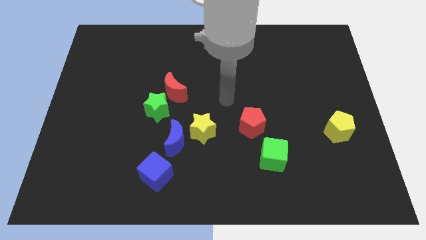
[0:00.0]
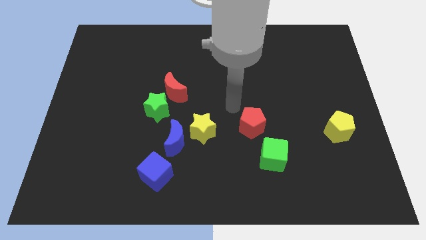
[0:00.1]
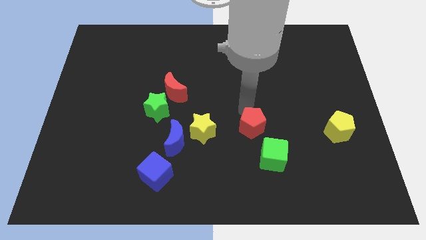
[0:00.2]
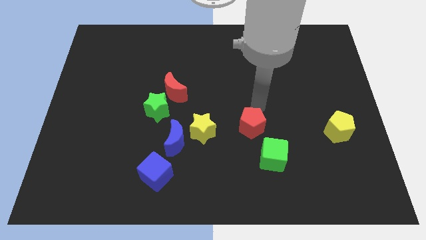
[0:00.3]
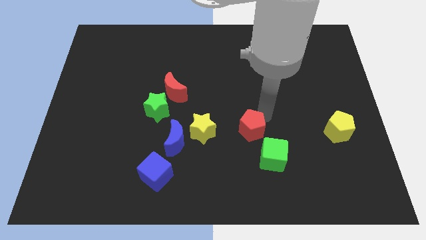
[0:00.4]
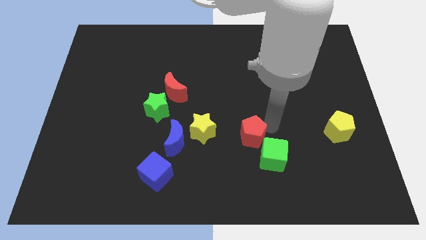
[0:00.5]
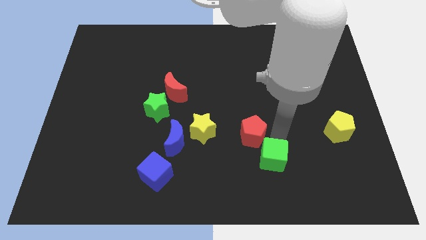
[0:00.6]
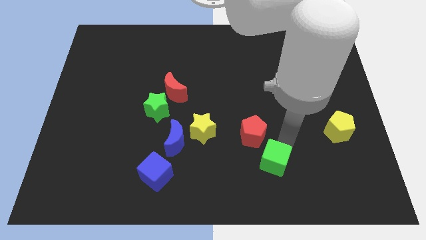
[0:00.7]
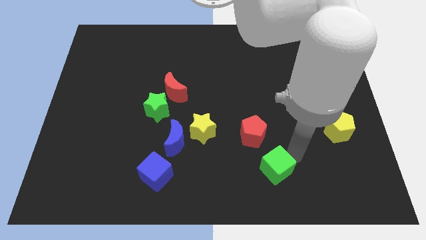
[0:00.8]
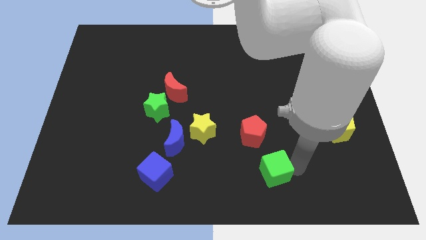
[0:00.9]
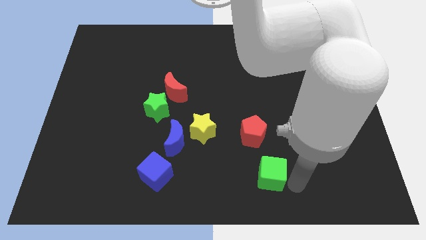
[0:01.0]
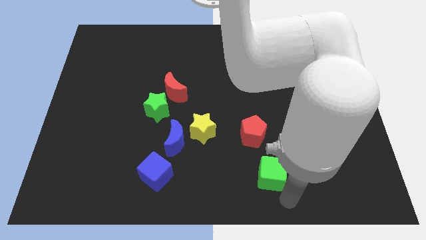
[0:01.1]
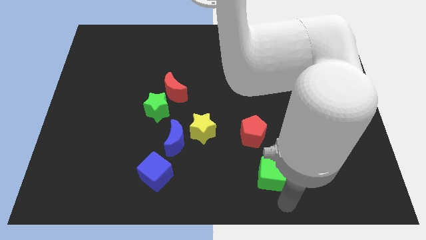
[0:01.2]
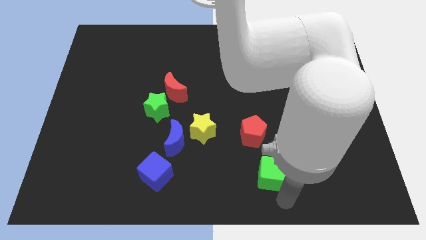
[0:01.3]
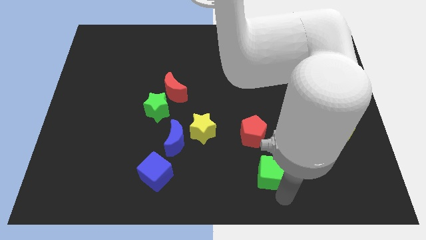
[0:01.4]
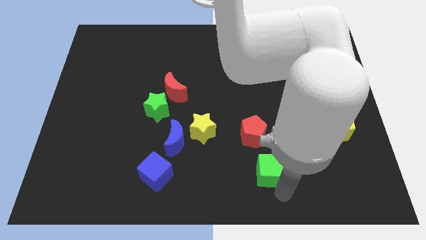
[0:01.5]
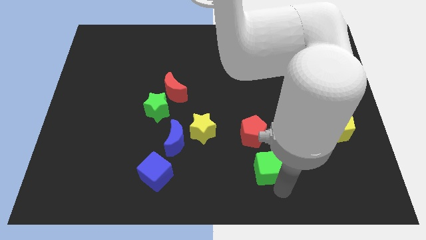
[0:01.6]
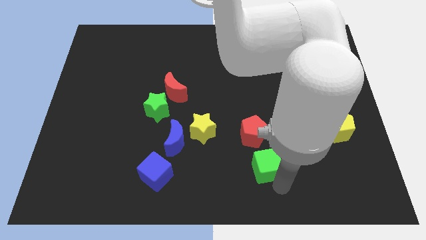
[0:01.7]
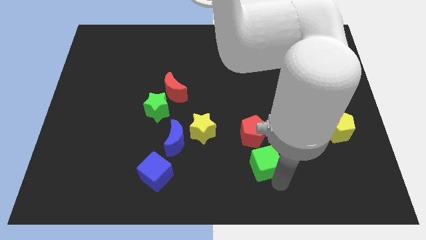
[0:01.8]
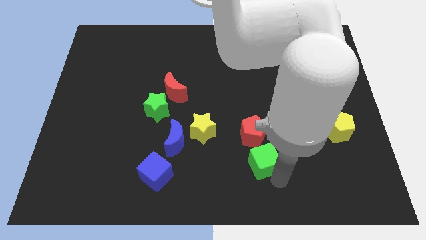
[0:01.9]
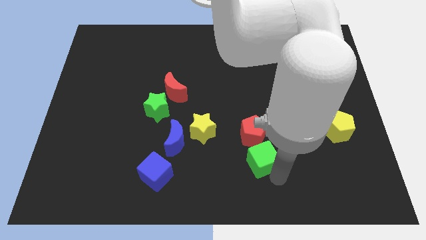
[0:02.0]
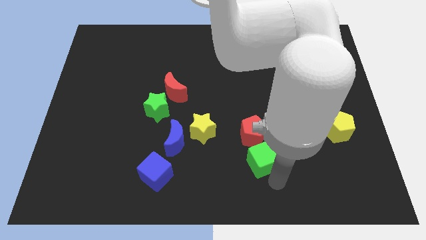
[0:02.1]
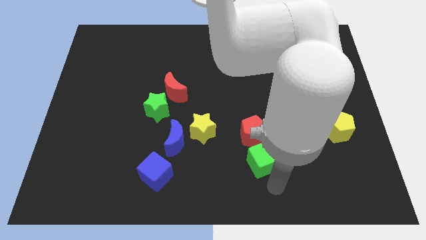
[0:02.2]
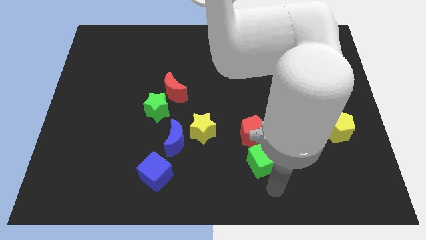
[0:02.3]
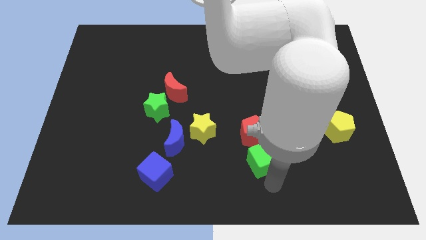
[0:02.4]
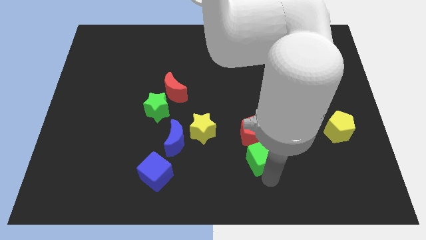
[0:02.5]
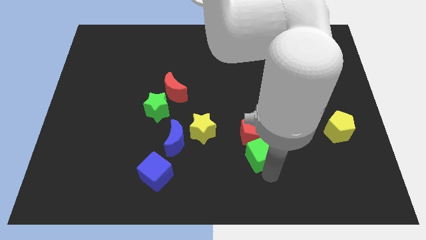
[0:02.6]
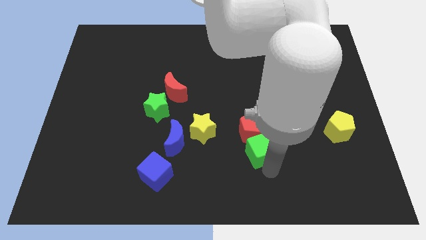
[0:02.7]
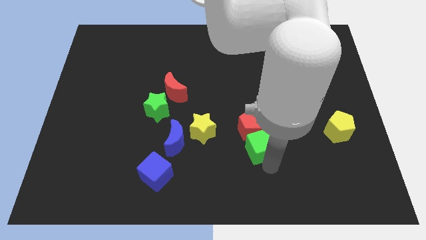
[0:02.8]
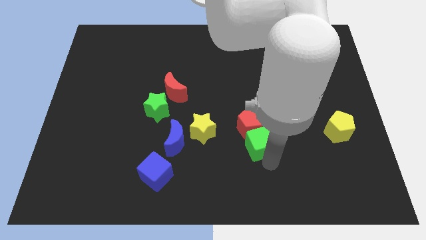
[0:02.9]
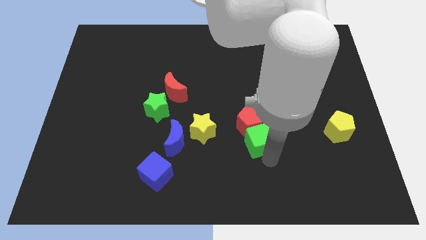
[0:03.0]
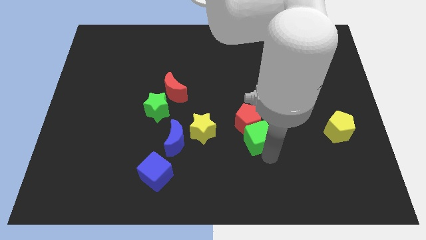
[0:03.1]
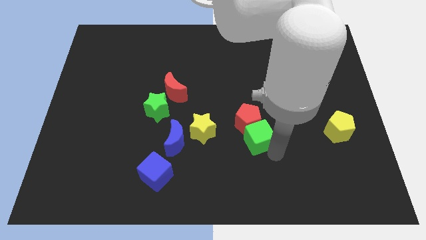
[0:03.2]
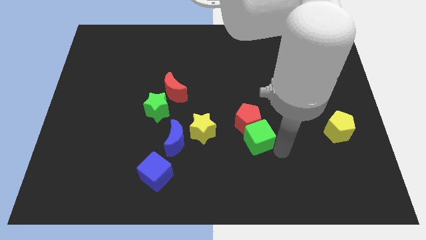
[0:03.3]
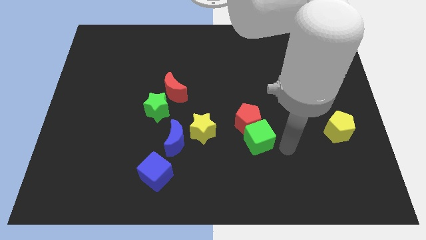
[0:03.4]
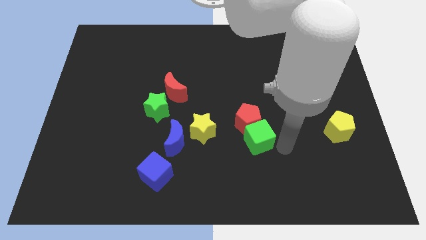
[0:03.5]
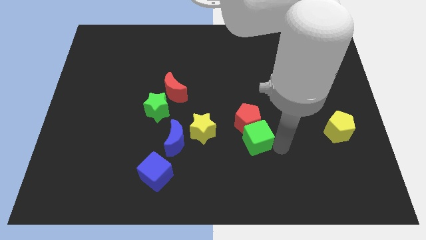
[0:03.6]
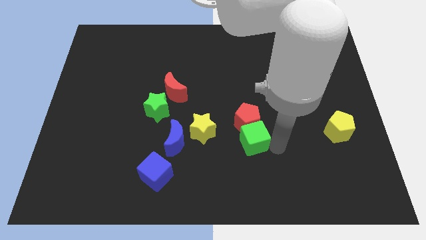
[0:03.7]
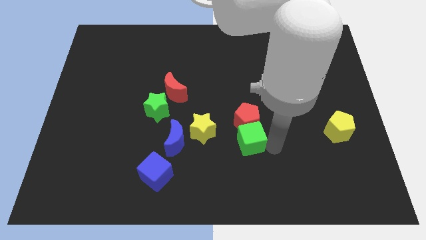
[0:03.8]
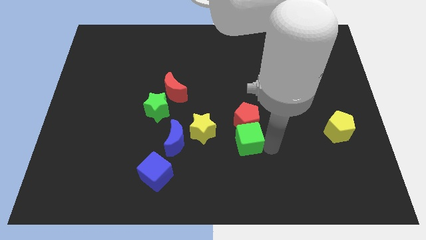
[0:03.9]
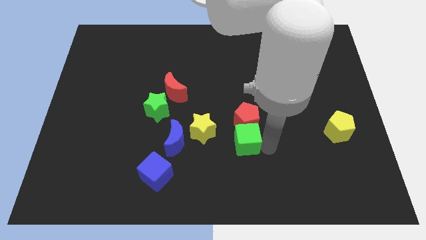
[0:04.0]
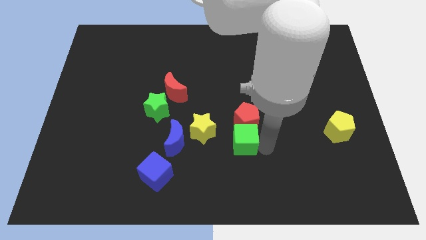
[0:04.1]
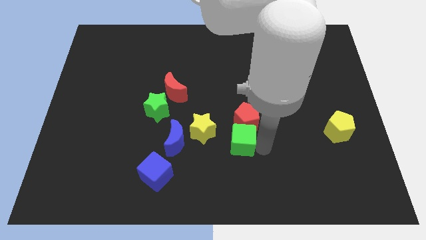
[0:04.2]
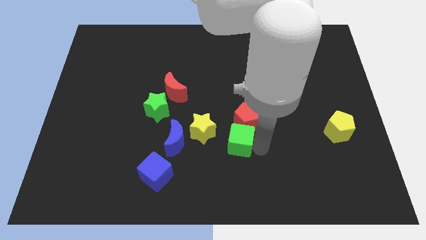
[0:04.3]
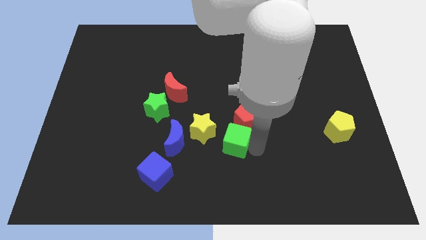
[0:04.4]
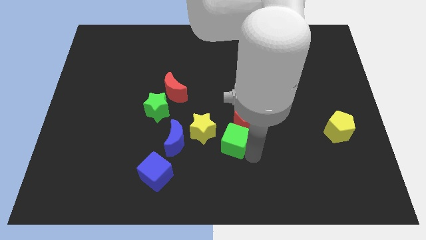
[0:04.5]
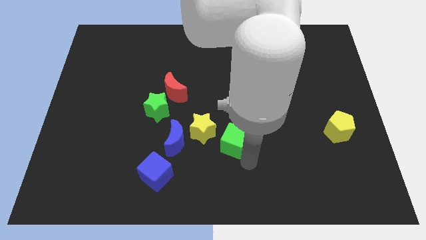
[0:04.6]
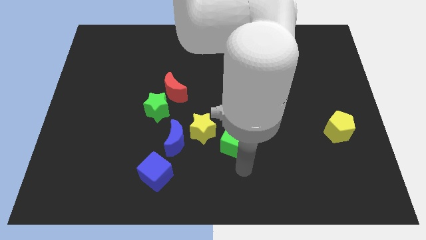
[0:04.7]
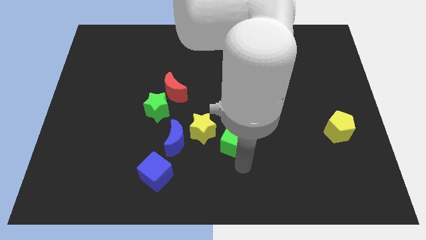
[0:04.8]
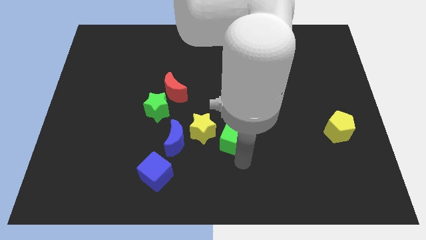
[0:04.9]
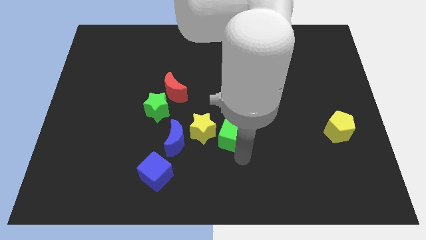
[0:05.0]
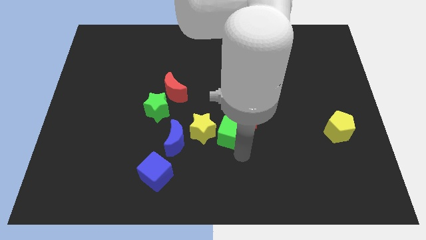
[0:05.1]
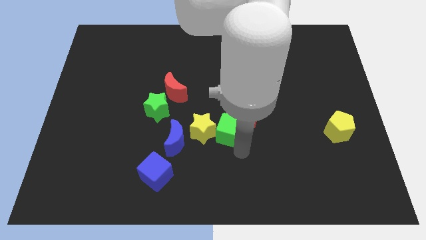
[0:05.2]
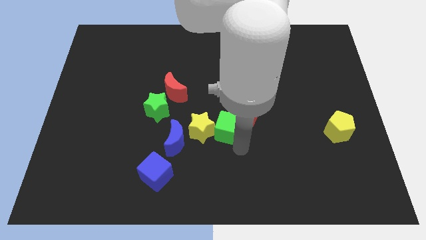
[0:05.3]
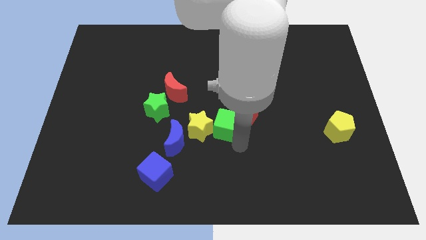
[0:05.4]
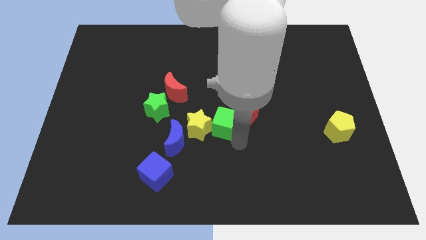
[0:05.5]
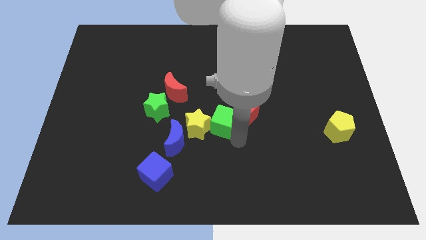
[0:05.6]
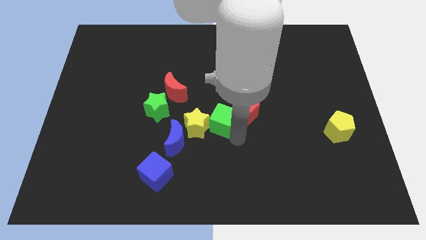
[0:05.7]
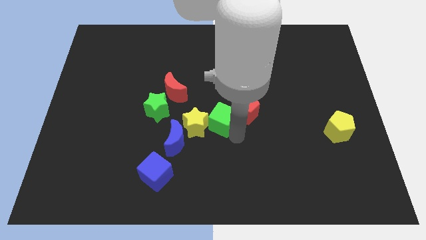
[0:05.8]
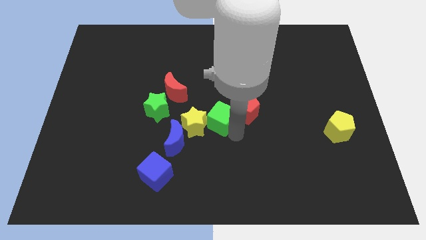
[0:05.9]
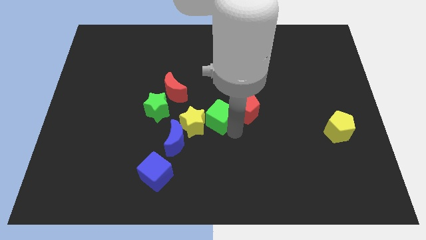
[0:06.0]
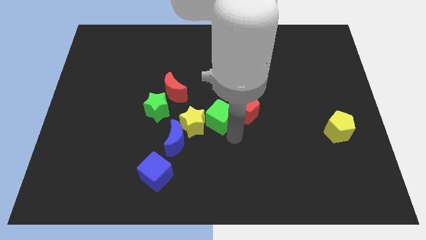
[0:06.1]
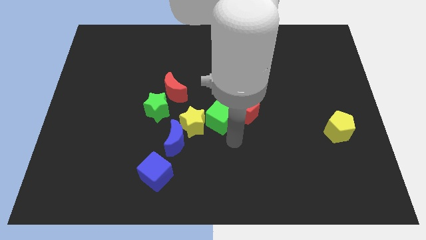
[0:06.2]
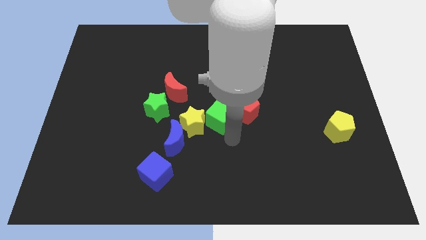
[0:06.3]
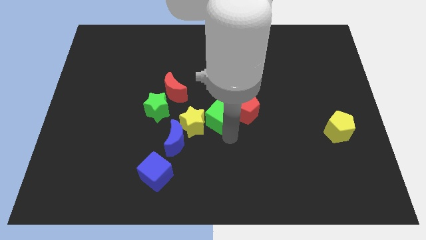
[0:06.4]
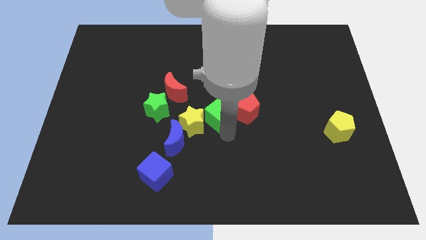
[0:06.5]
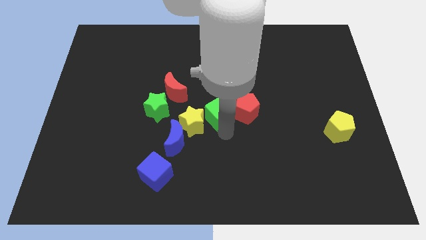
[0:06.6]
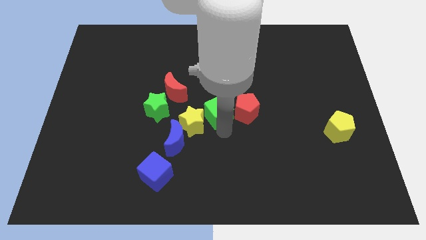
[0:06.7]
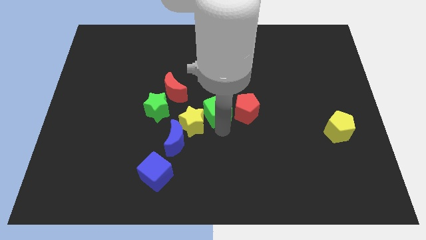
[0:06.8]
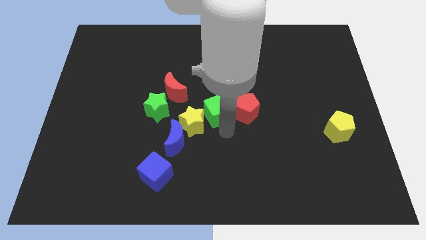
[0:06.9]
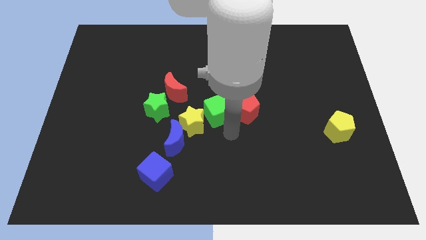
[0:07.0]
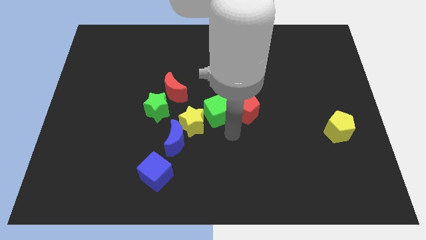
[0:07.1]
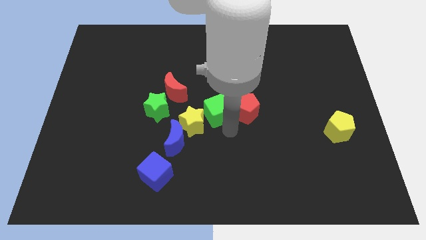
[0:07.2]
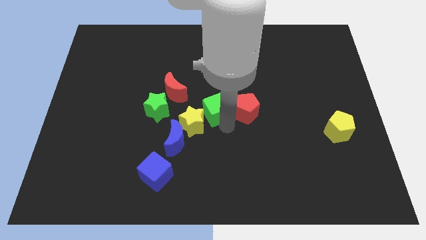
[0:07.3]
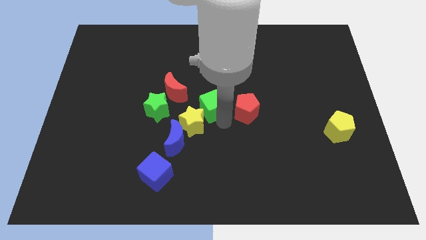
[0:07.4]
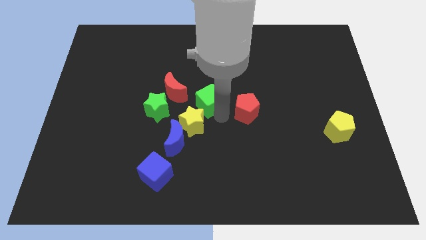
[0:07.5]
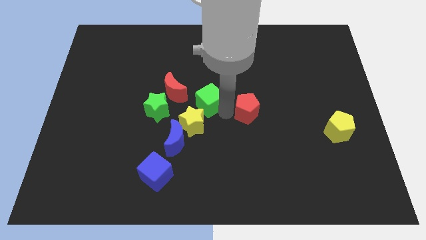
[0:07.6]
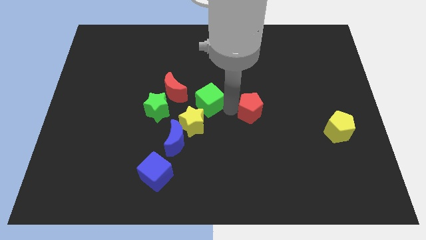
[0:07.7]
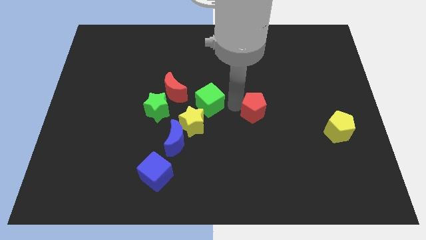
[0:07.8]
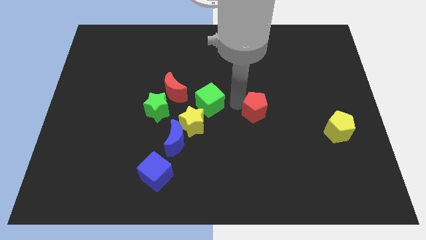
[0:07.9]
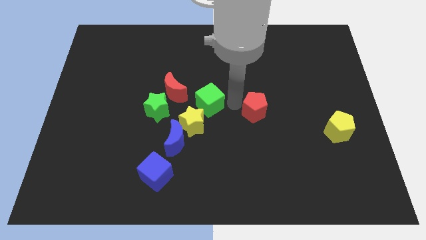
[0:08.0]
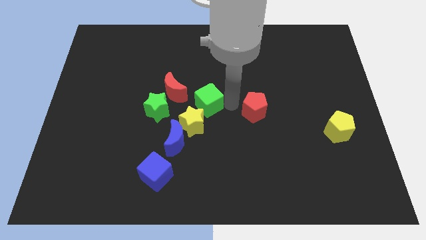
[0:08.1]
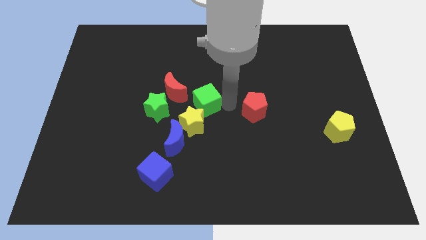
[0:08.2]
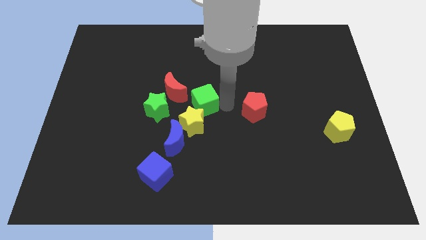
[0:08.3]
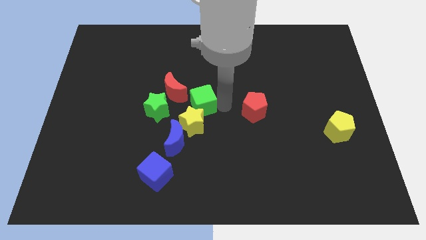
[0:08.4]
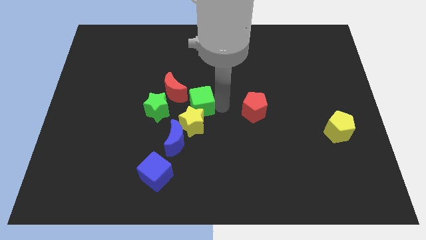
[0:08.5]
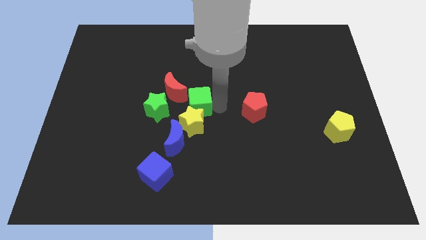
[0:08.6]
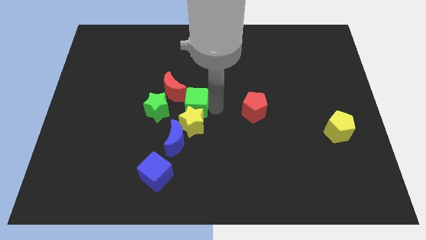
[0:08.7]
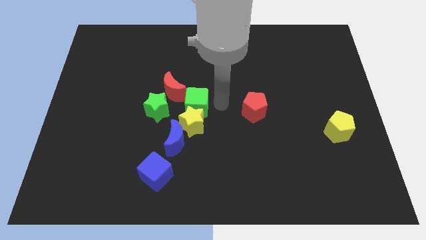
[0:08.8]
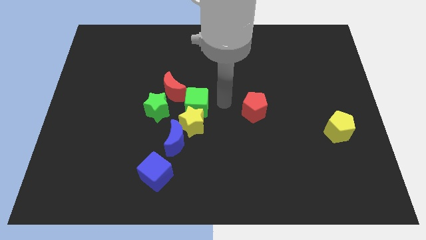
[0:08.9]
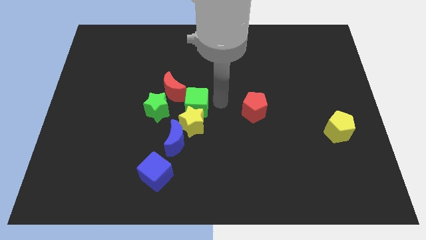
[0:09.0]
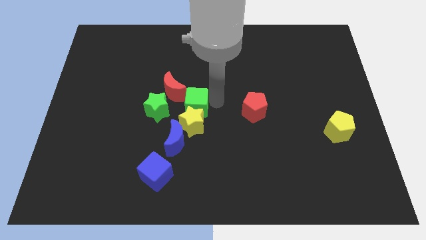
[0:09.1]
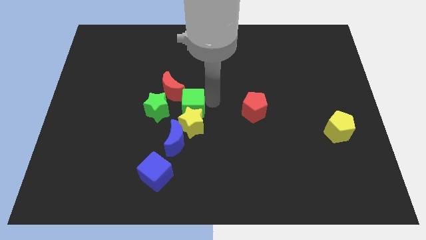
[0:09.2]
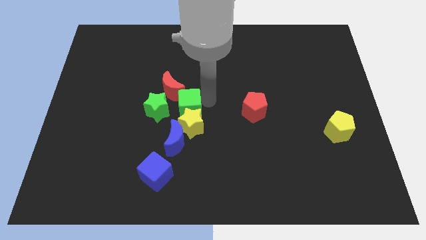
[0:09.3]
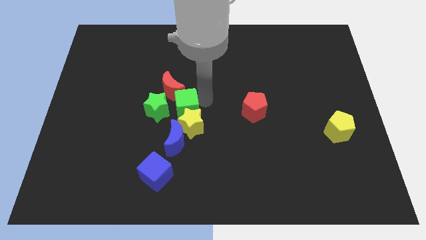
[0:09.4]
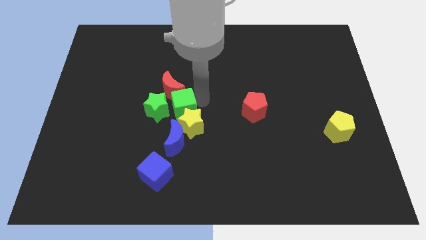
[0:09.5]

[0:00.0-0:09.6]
move the green cube next to the green star
